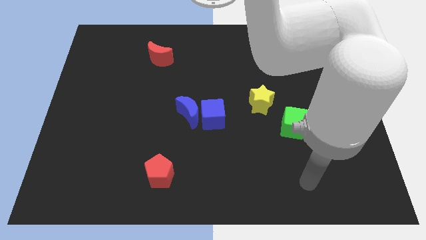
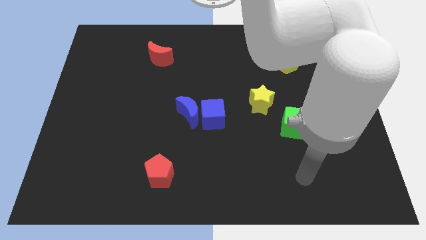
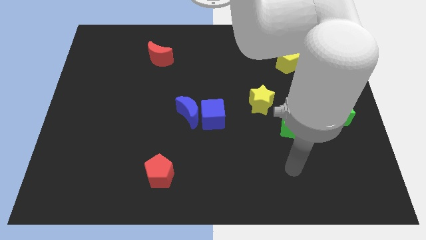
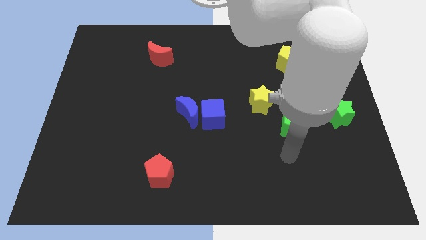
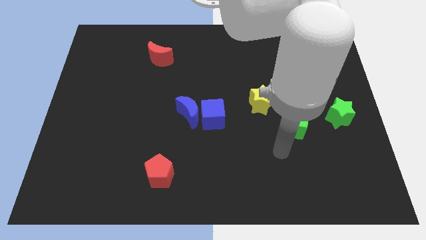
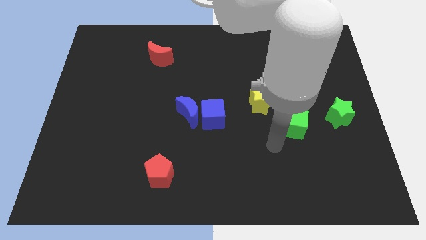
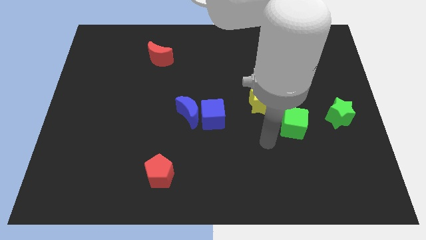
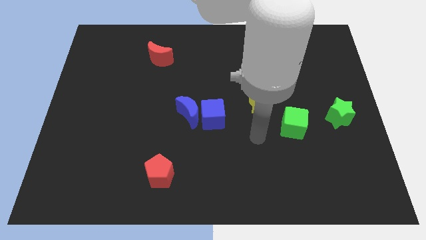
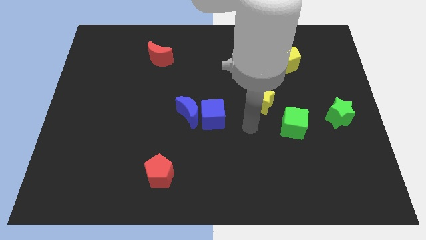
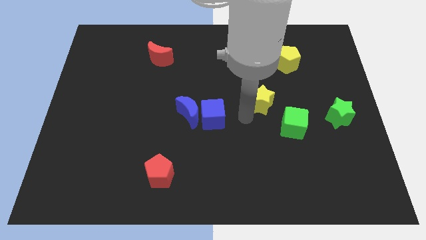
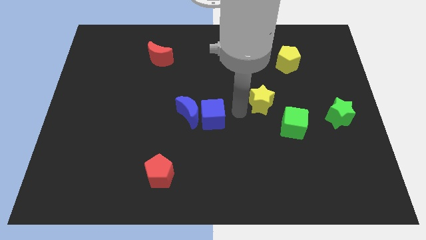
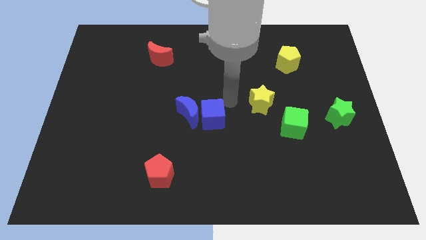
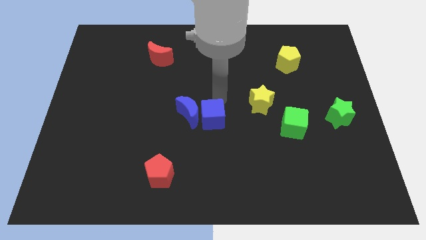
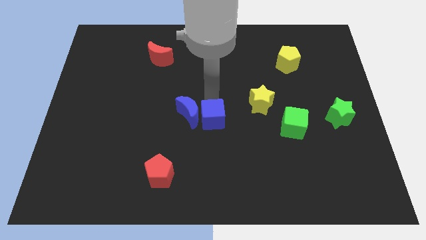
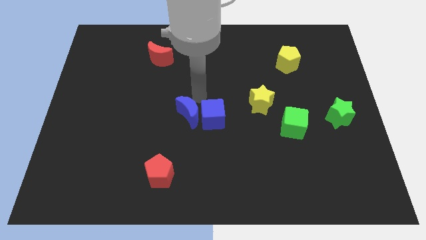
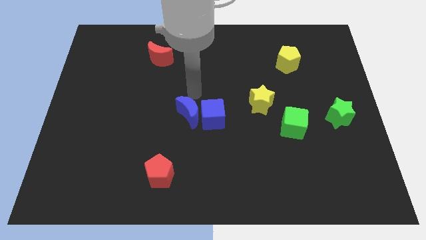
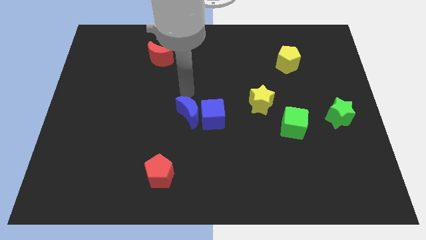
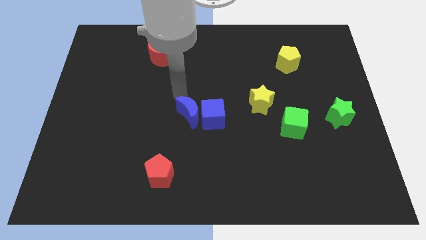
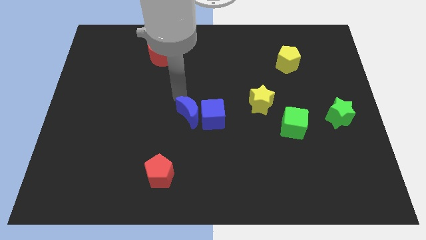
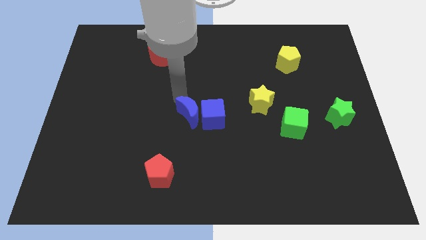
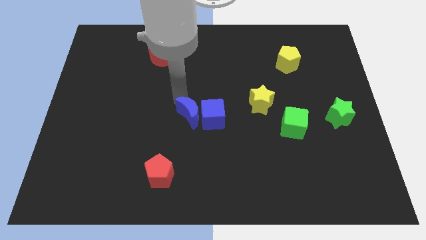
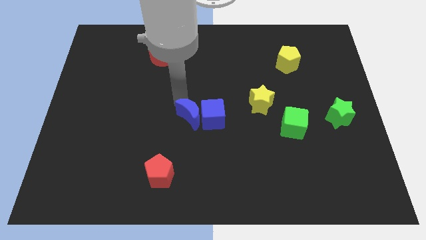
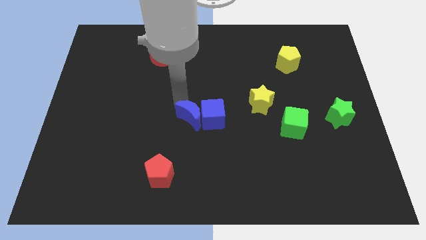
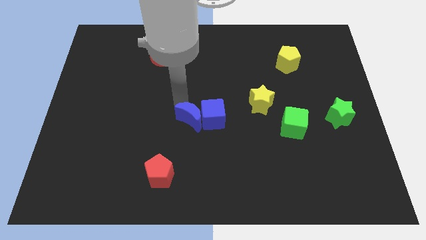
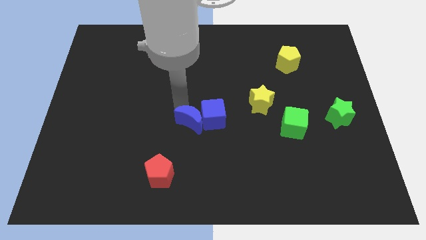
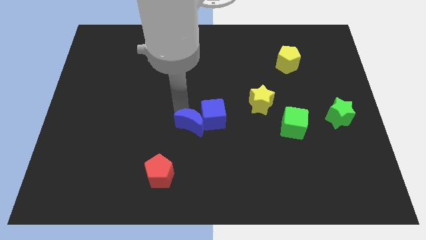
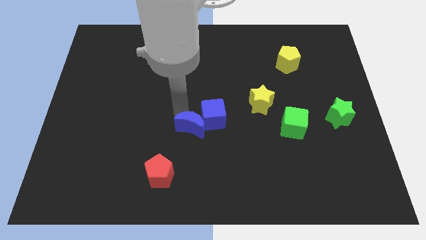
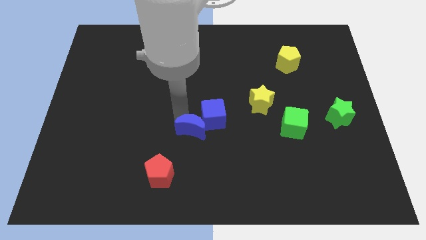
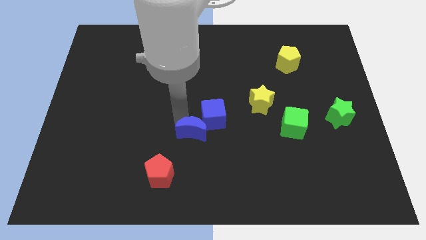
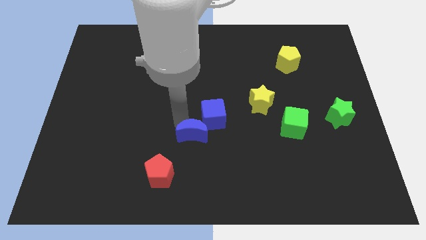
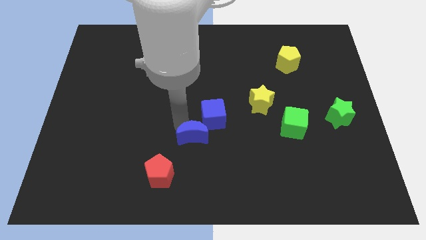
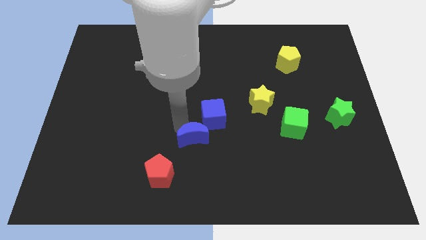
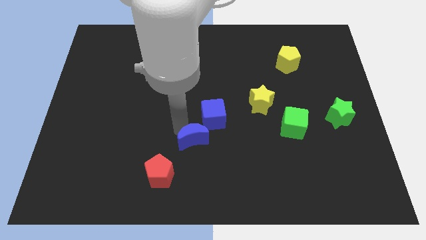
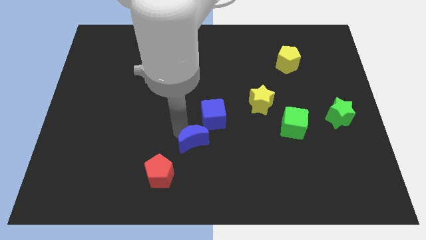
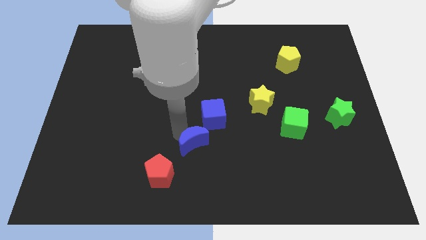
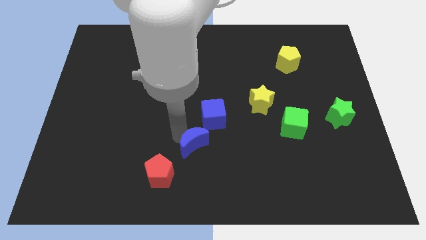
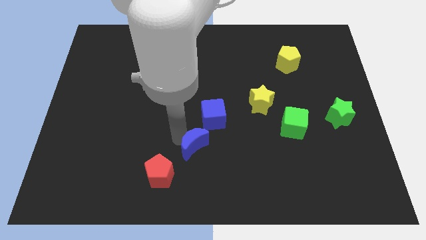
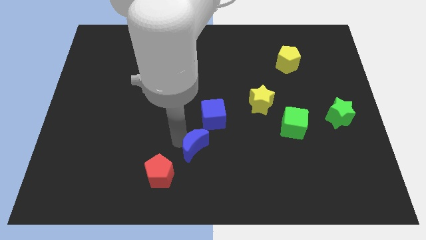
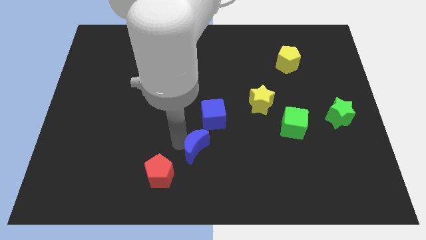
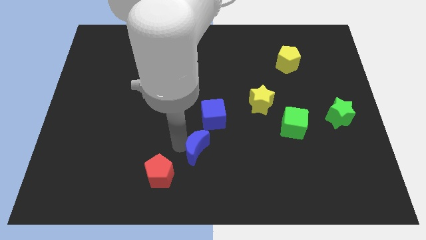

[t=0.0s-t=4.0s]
slightly slide the blue moon downwards and right

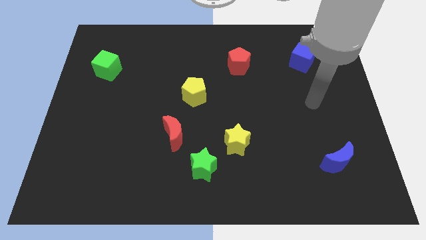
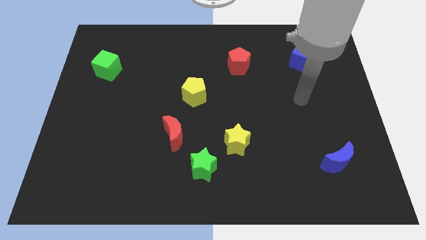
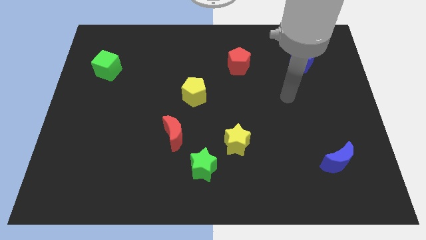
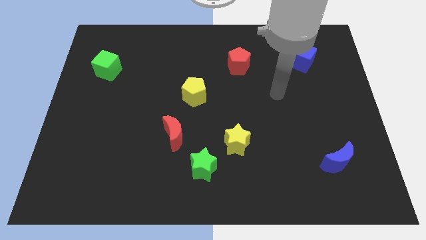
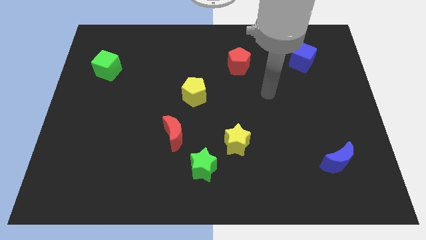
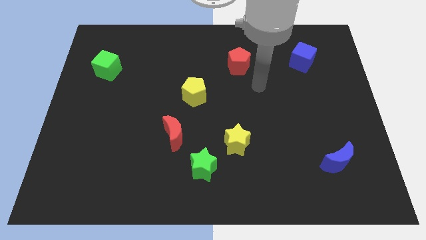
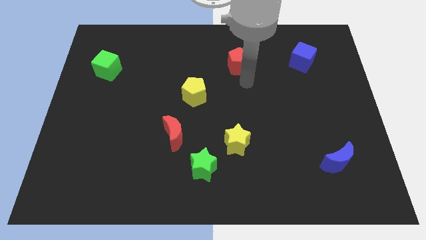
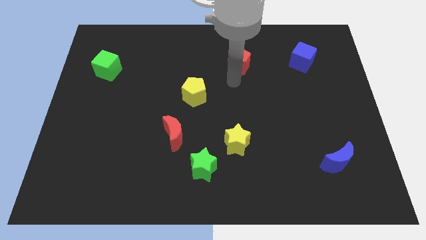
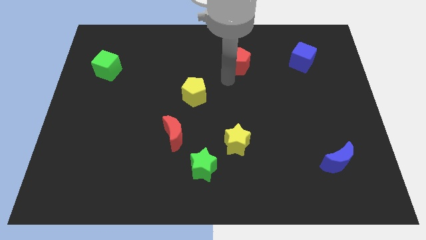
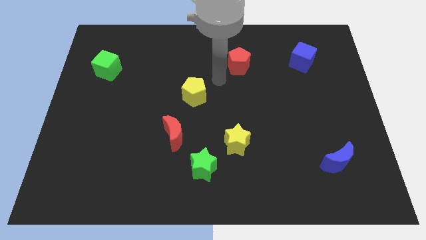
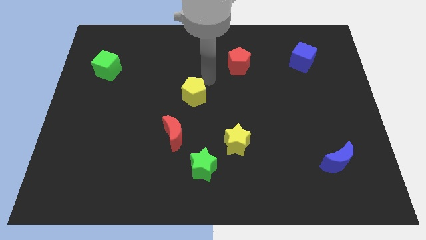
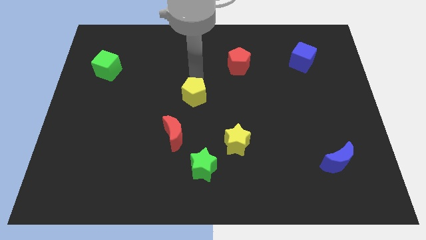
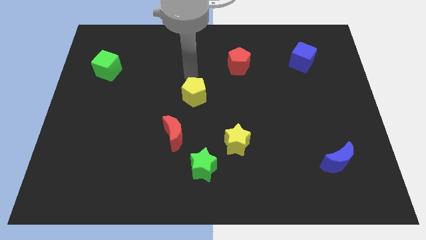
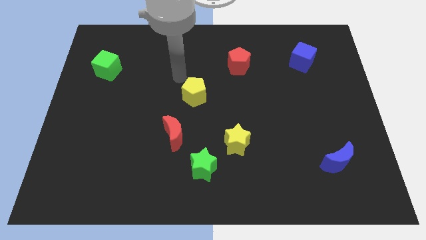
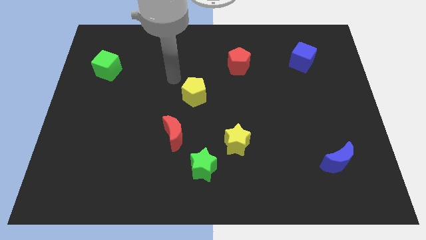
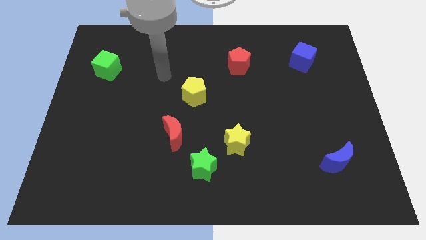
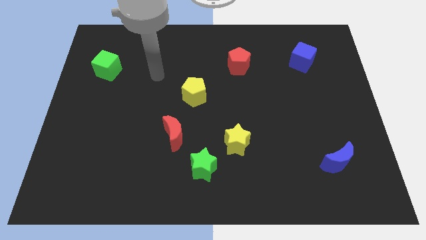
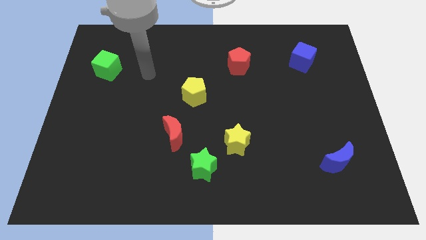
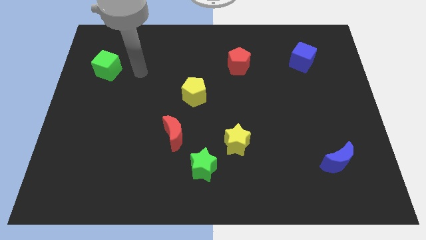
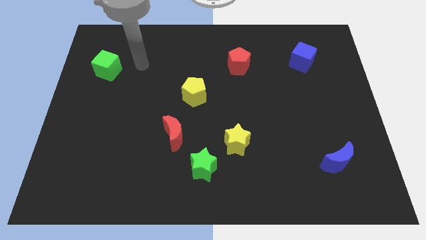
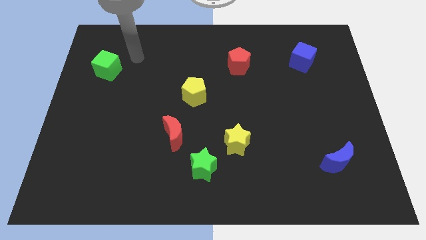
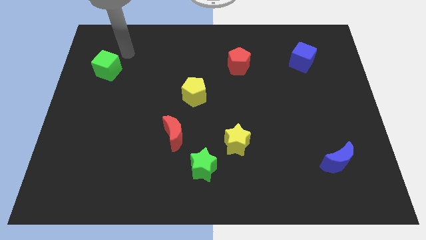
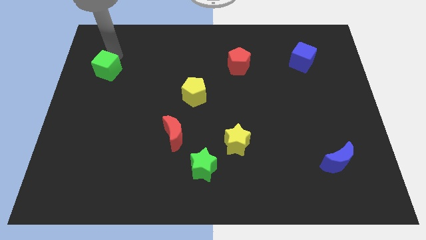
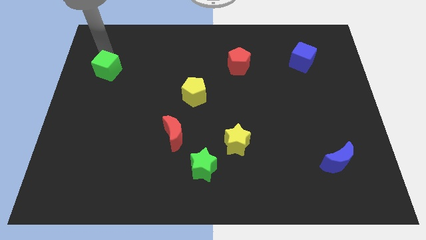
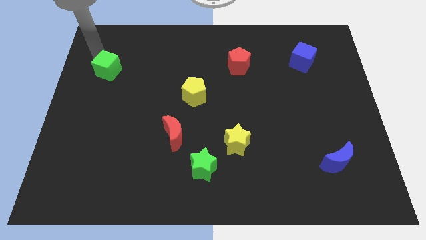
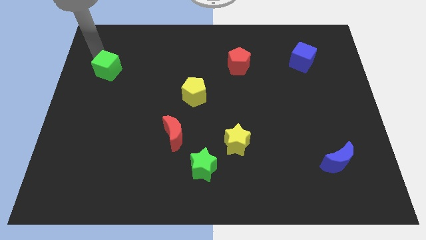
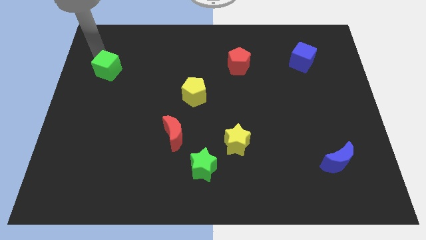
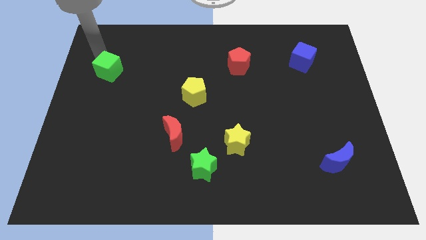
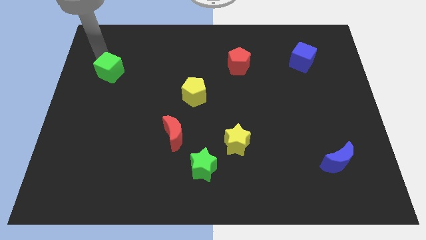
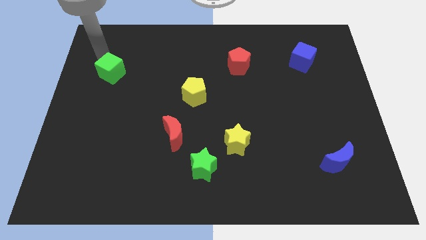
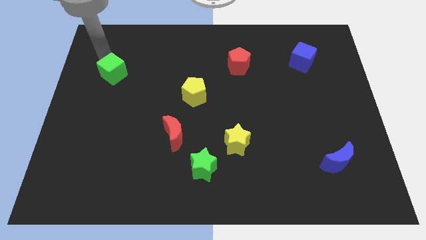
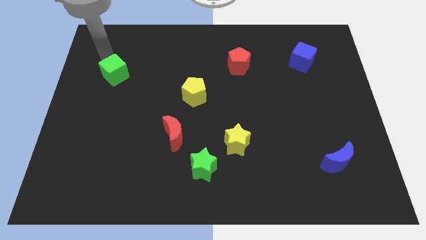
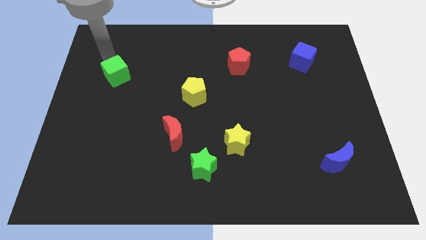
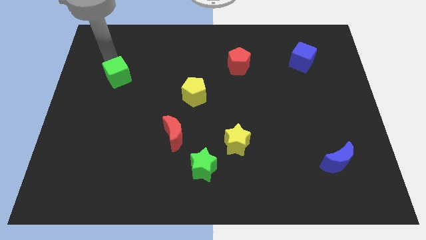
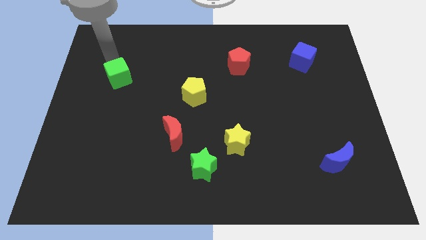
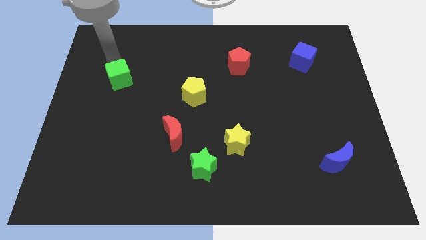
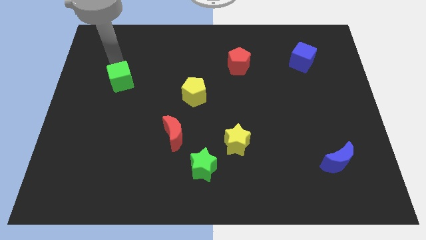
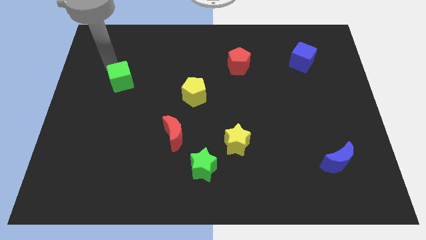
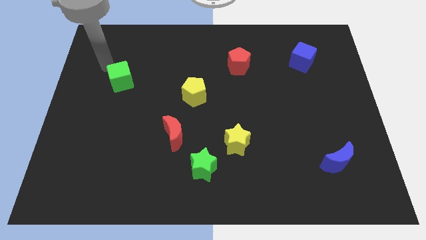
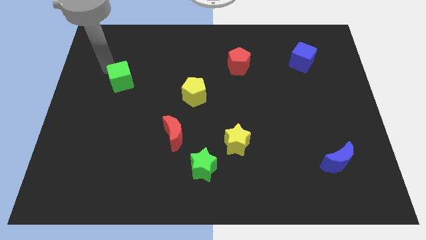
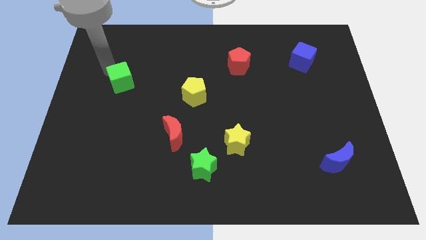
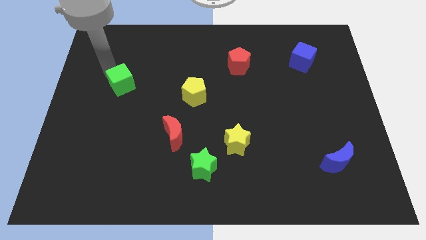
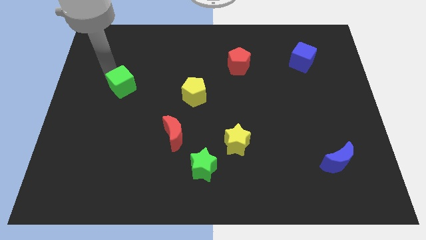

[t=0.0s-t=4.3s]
push the green cube somewhat downwards and to the right diagonally
